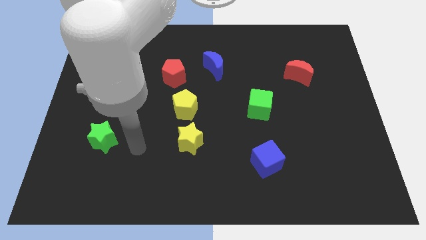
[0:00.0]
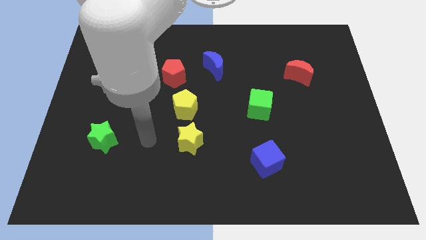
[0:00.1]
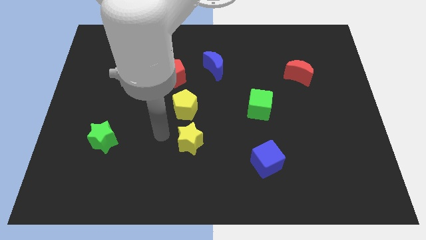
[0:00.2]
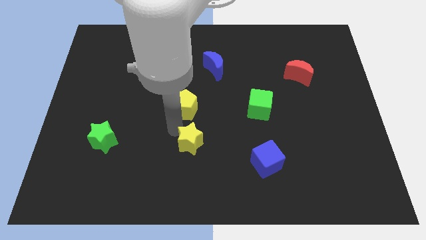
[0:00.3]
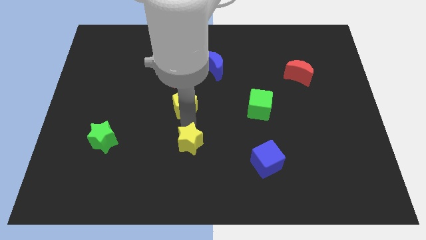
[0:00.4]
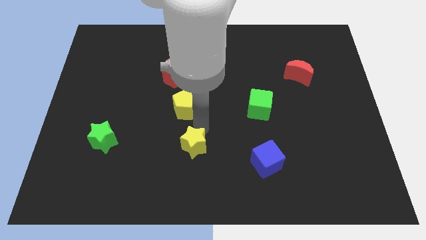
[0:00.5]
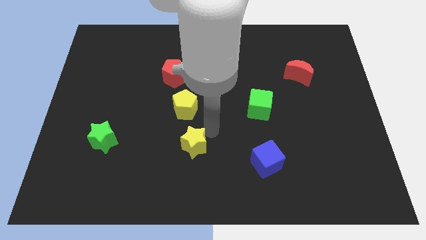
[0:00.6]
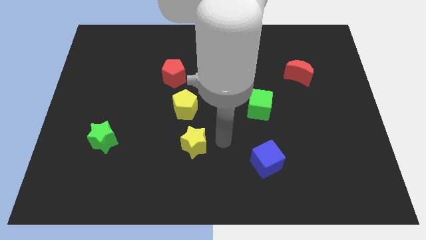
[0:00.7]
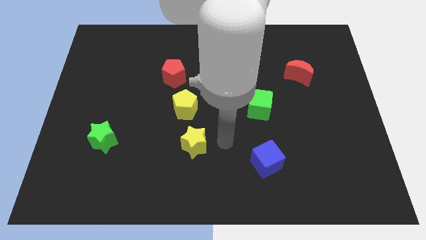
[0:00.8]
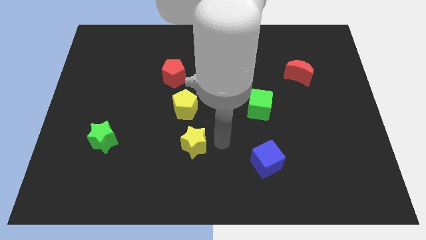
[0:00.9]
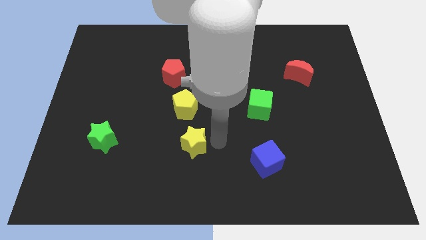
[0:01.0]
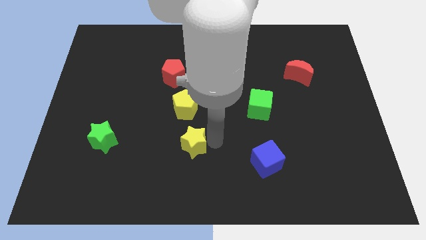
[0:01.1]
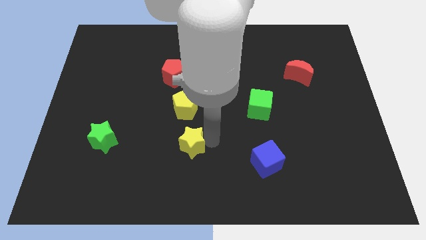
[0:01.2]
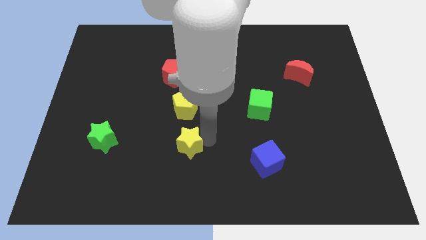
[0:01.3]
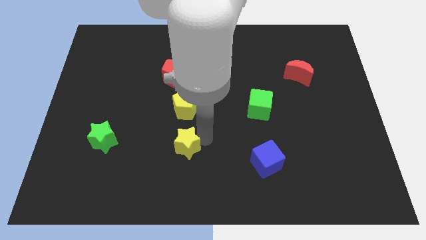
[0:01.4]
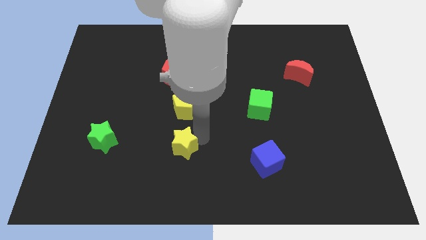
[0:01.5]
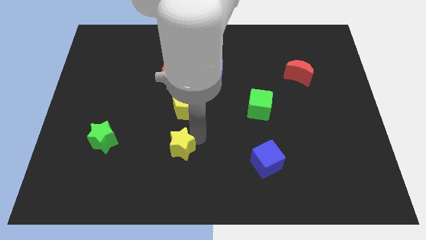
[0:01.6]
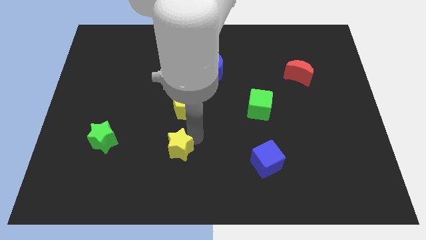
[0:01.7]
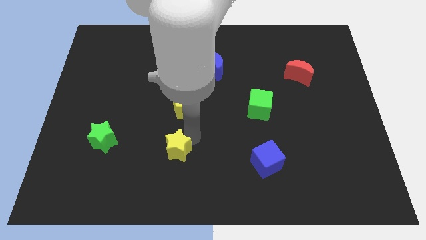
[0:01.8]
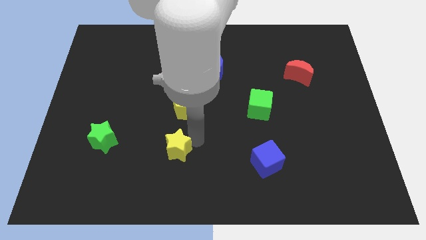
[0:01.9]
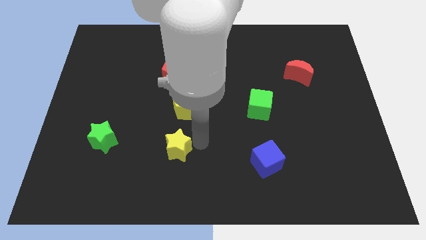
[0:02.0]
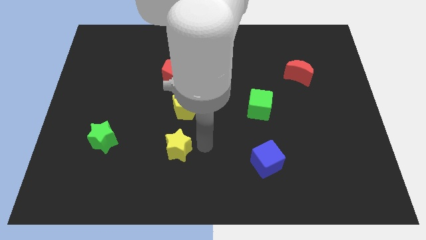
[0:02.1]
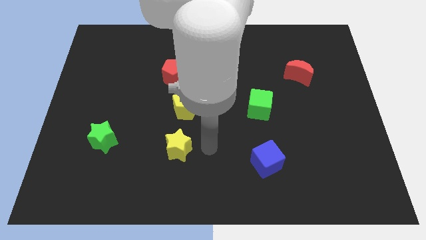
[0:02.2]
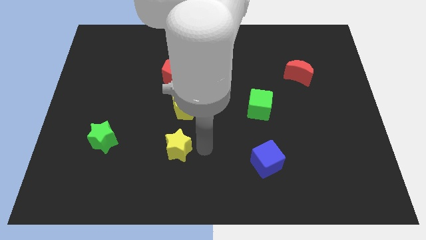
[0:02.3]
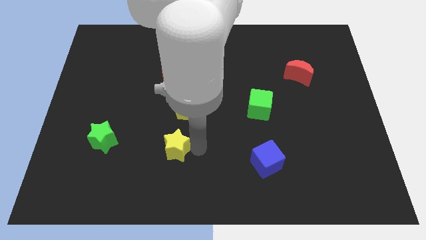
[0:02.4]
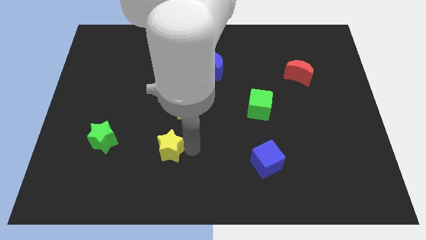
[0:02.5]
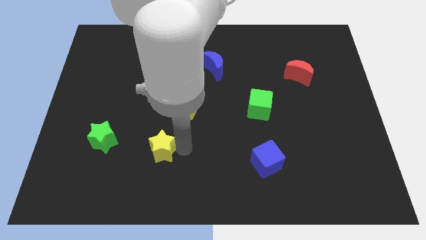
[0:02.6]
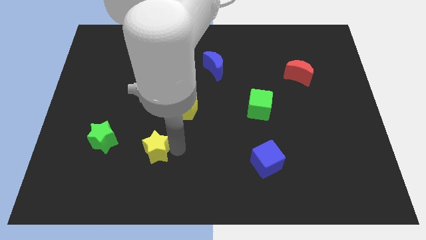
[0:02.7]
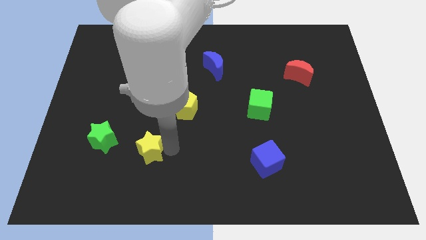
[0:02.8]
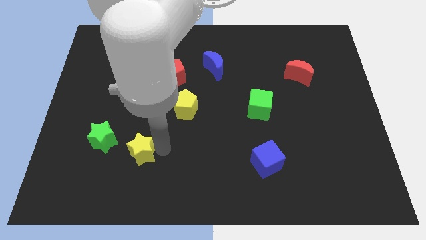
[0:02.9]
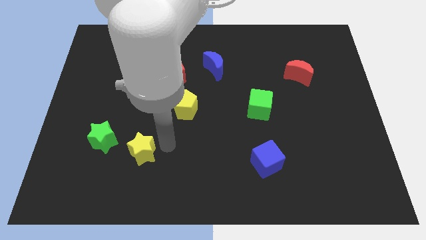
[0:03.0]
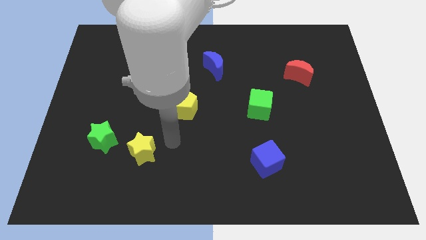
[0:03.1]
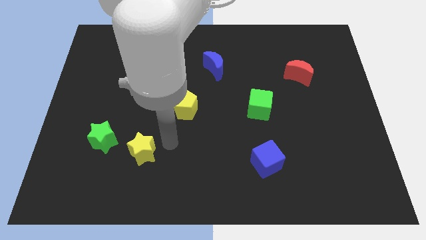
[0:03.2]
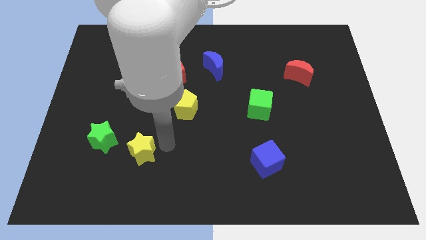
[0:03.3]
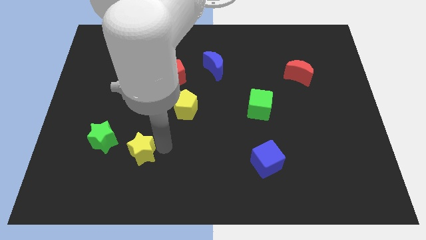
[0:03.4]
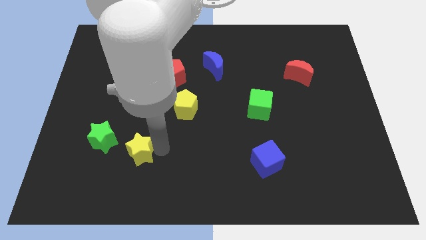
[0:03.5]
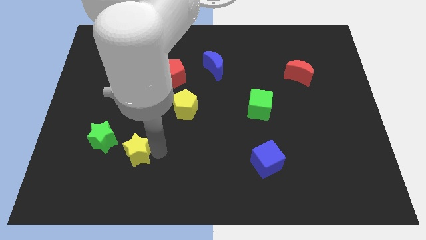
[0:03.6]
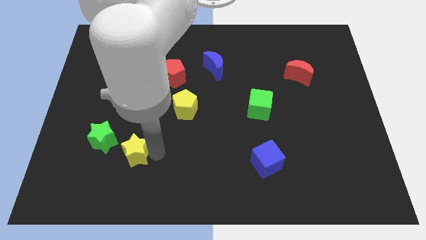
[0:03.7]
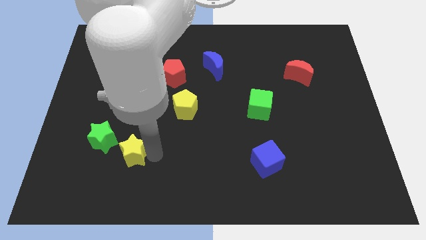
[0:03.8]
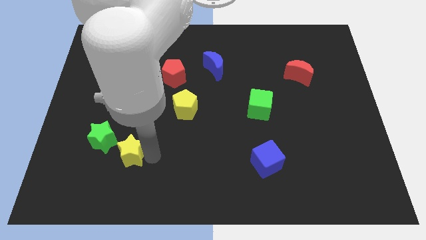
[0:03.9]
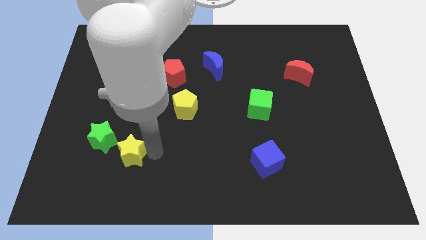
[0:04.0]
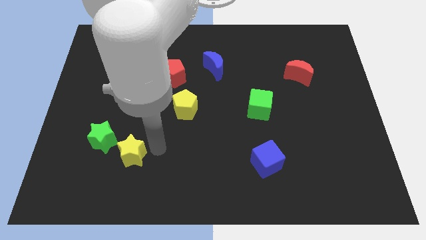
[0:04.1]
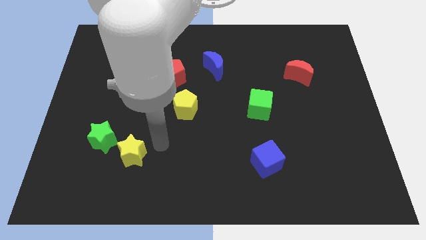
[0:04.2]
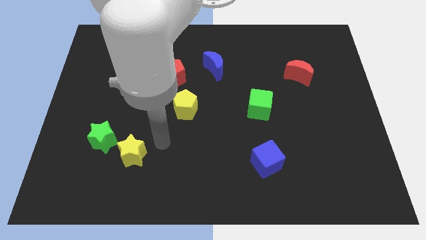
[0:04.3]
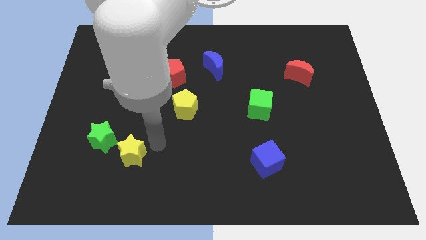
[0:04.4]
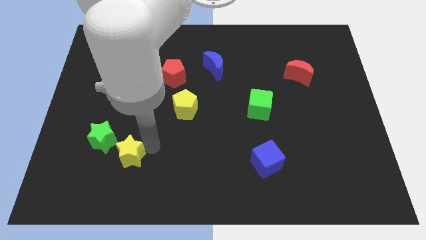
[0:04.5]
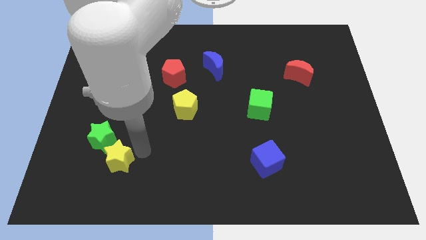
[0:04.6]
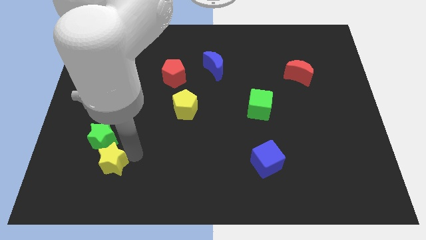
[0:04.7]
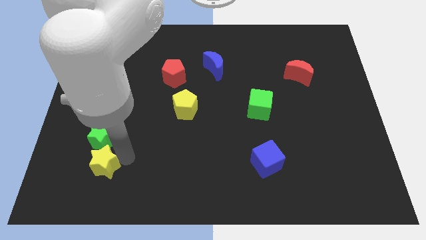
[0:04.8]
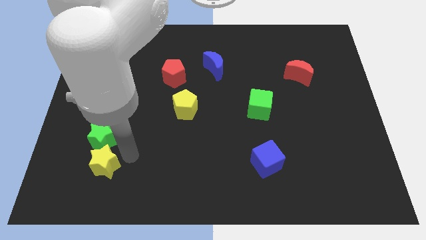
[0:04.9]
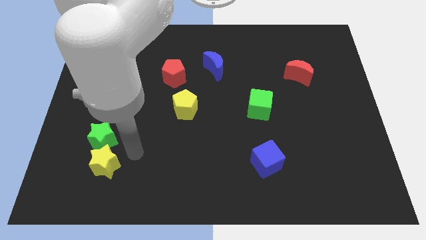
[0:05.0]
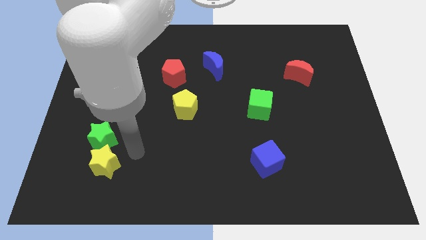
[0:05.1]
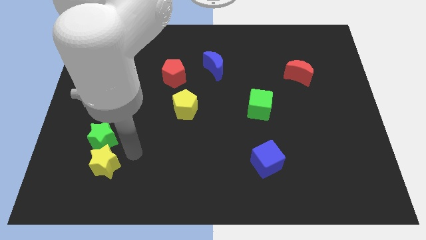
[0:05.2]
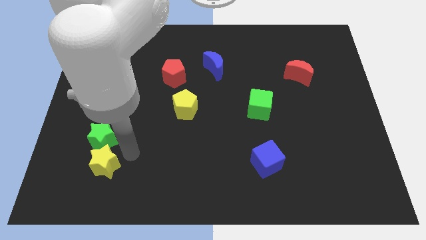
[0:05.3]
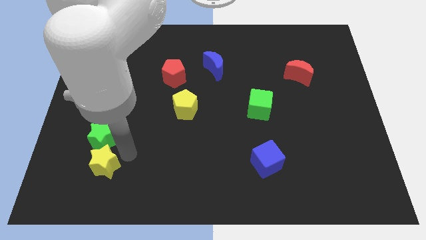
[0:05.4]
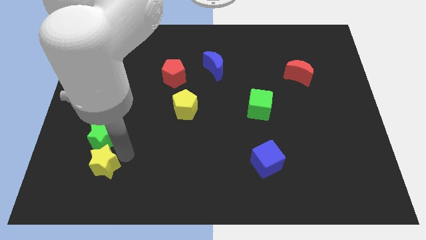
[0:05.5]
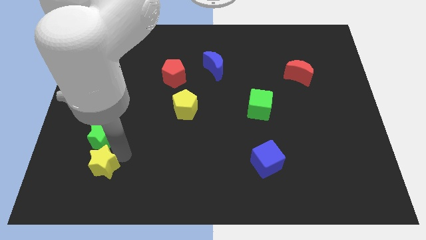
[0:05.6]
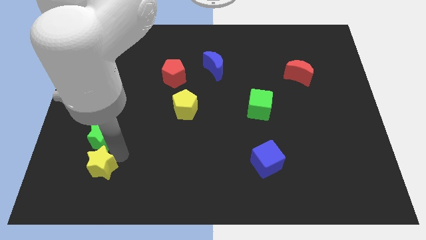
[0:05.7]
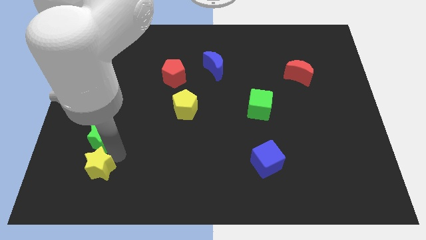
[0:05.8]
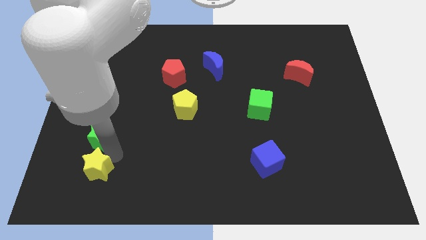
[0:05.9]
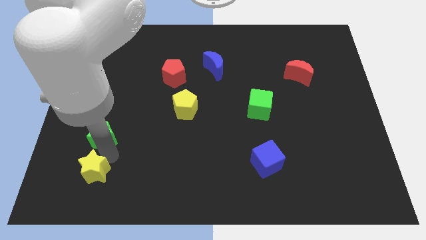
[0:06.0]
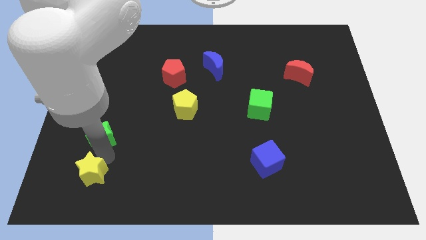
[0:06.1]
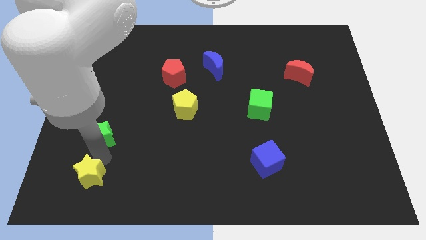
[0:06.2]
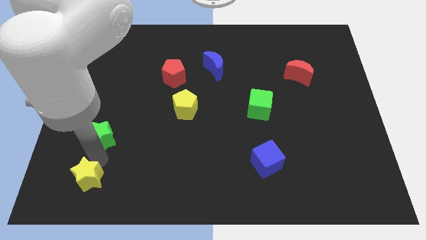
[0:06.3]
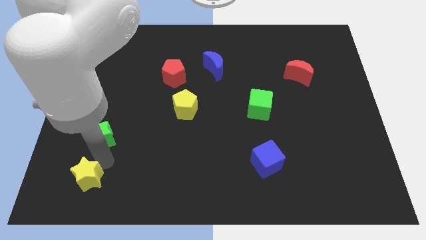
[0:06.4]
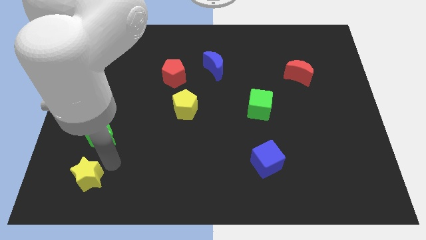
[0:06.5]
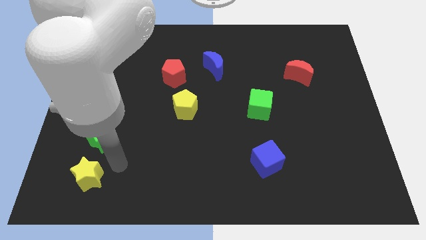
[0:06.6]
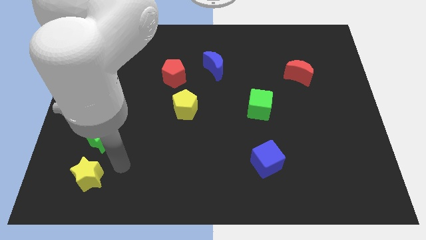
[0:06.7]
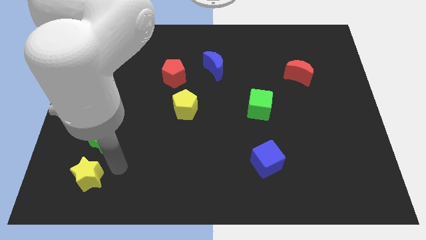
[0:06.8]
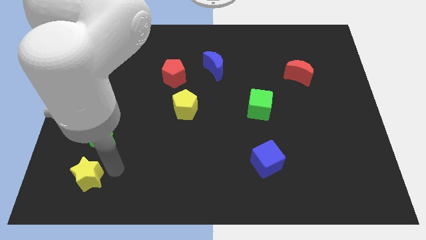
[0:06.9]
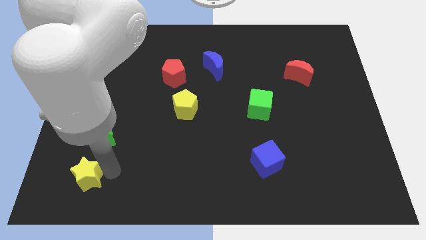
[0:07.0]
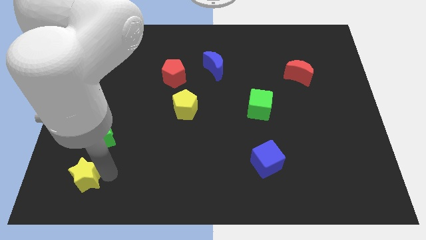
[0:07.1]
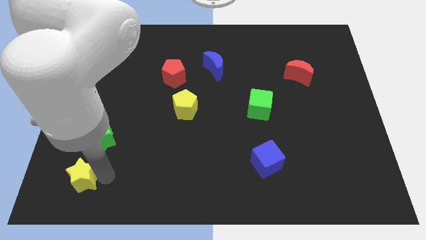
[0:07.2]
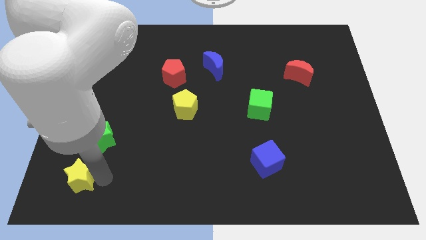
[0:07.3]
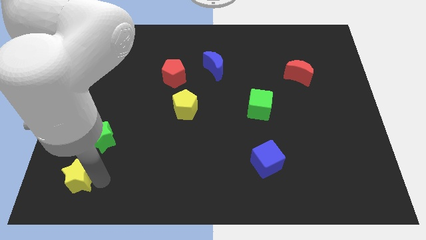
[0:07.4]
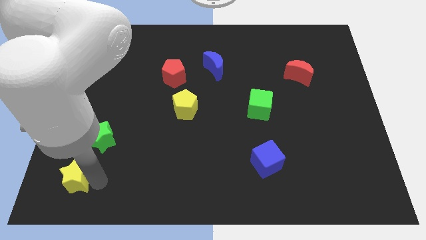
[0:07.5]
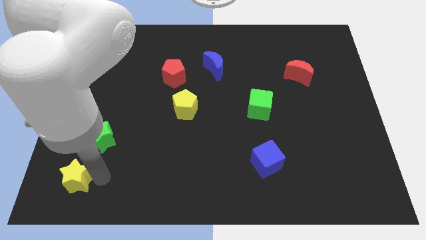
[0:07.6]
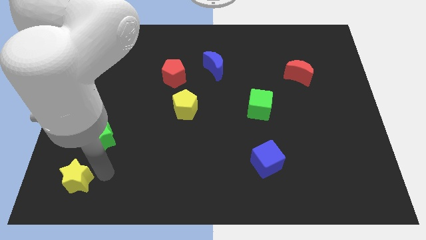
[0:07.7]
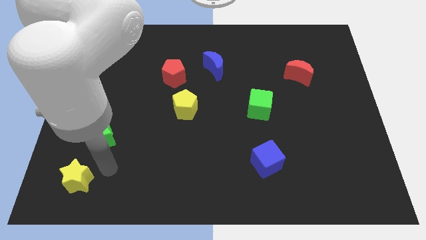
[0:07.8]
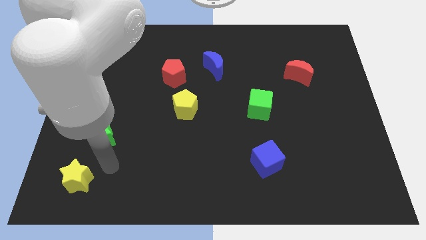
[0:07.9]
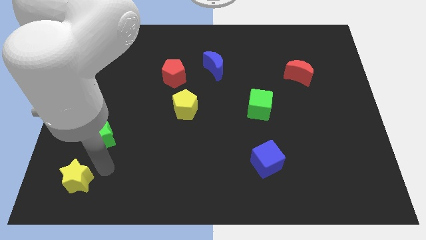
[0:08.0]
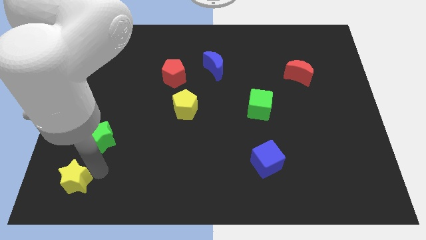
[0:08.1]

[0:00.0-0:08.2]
put the yellow star to the bottom left corner
